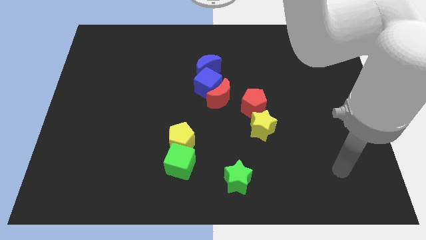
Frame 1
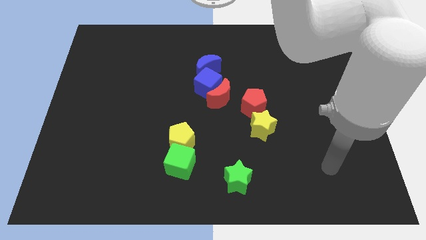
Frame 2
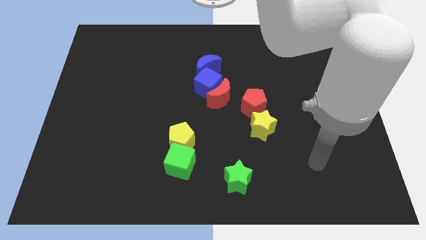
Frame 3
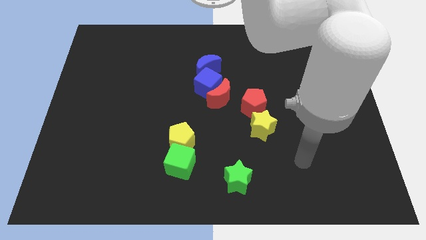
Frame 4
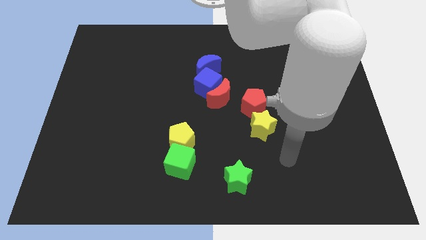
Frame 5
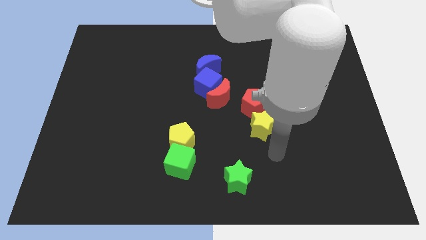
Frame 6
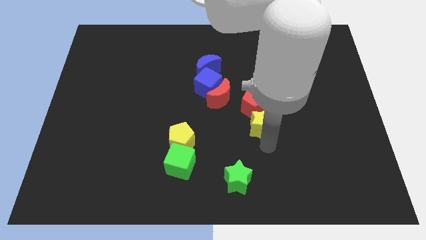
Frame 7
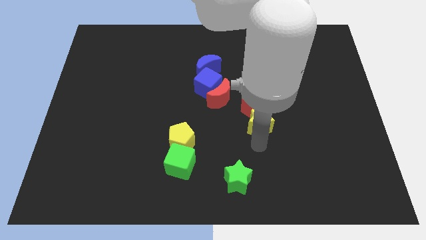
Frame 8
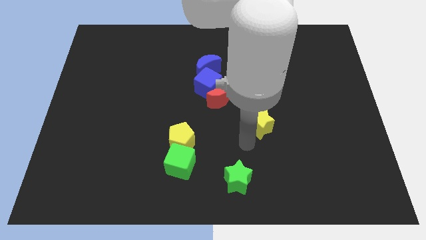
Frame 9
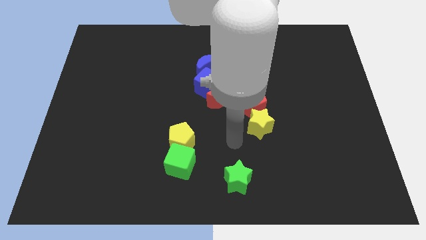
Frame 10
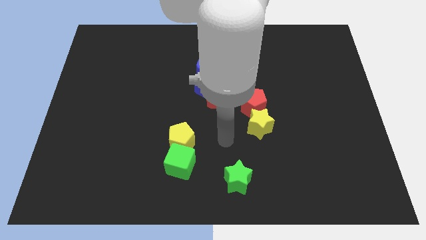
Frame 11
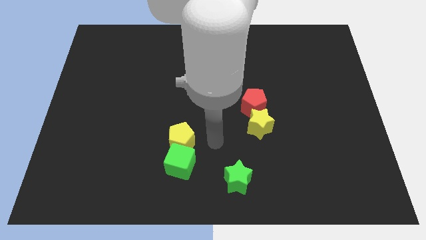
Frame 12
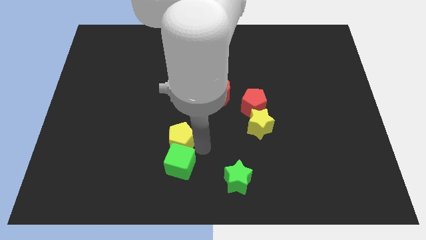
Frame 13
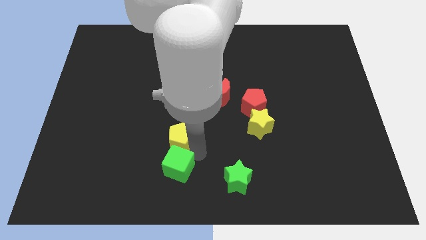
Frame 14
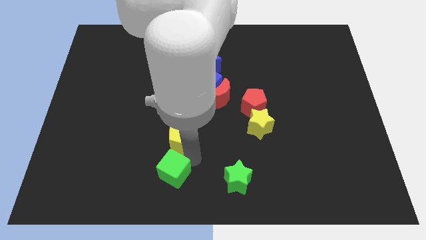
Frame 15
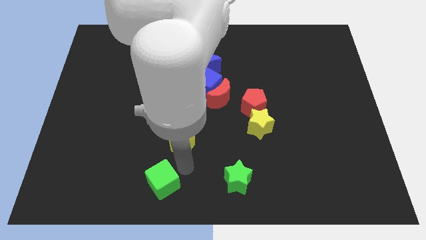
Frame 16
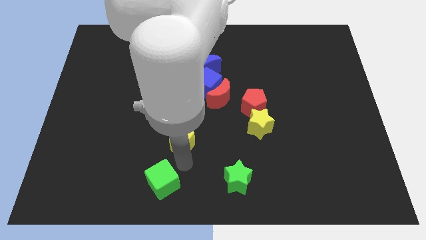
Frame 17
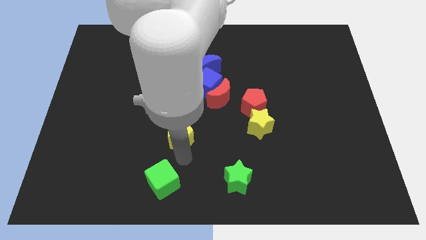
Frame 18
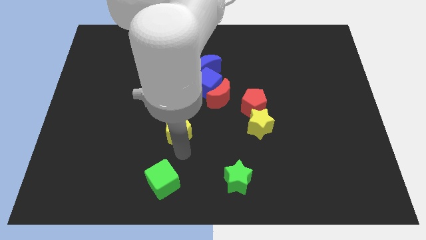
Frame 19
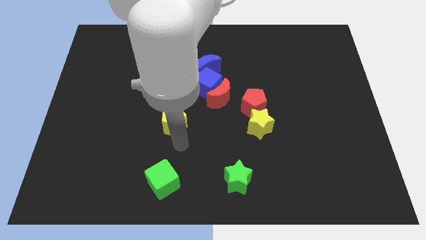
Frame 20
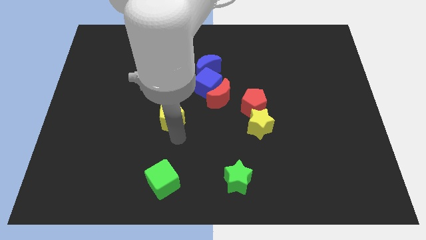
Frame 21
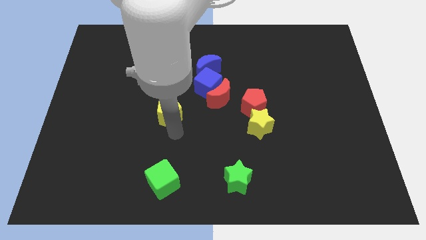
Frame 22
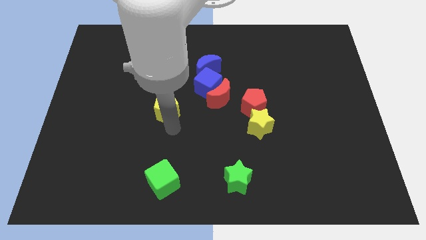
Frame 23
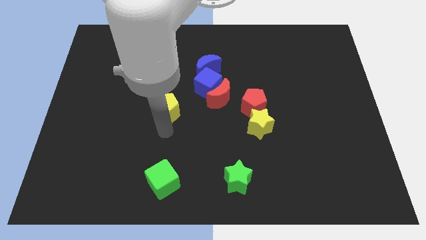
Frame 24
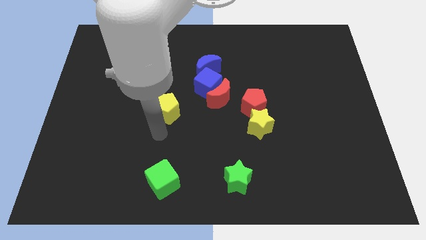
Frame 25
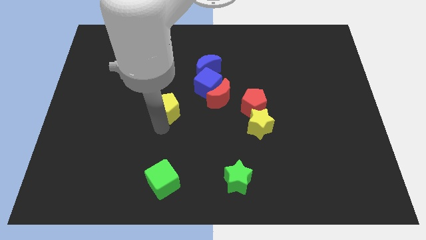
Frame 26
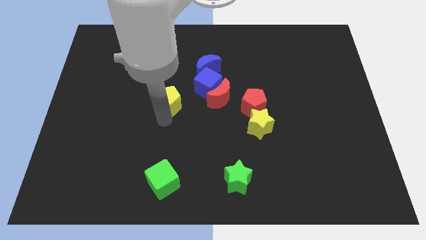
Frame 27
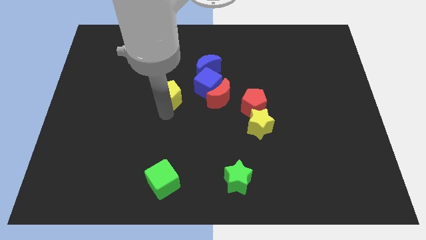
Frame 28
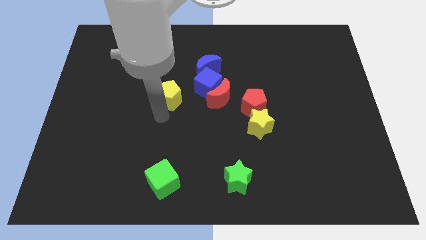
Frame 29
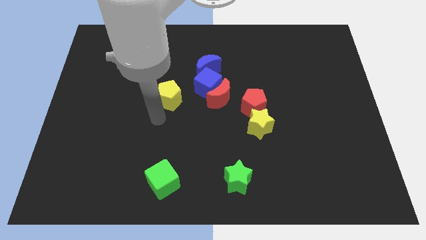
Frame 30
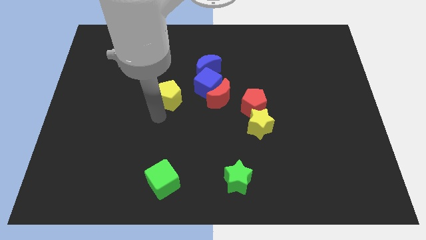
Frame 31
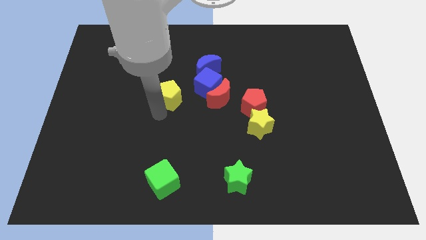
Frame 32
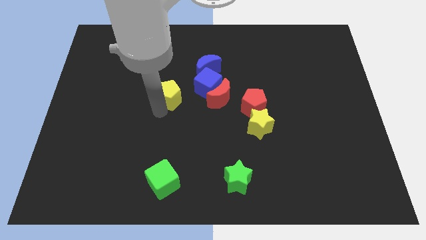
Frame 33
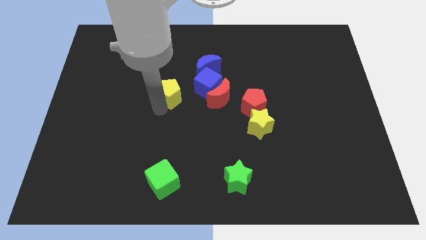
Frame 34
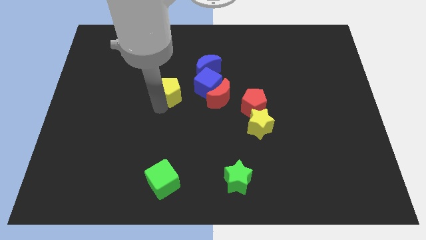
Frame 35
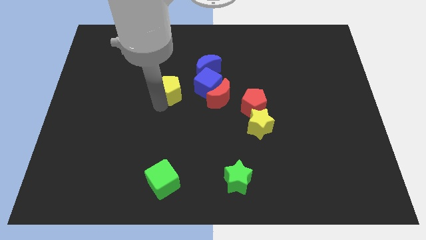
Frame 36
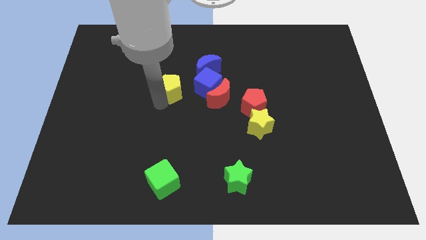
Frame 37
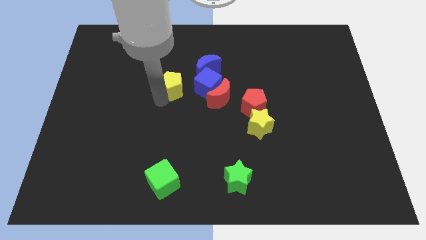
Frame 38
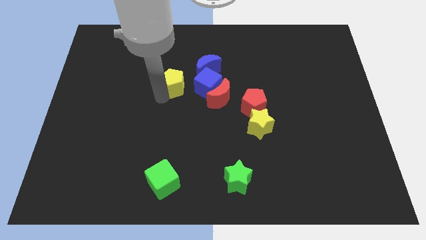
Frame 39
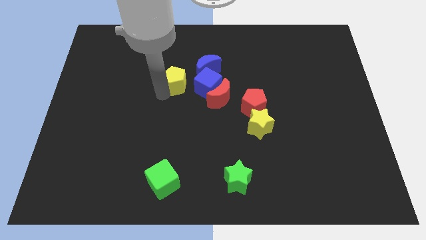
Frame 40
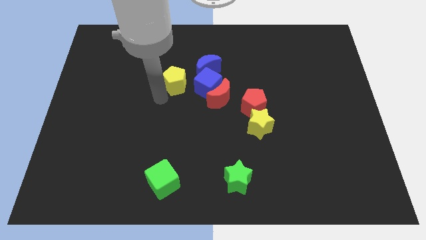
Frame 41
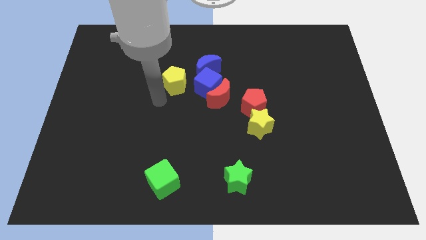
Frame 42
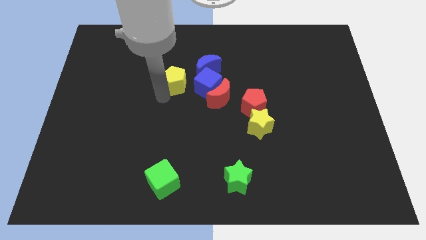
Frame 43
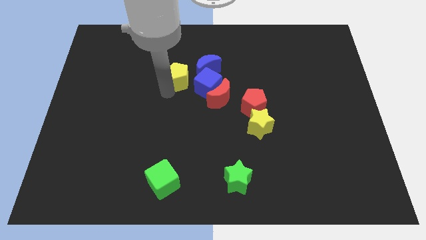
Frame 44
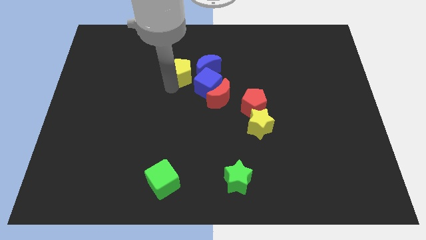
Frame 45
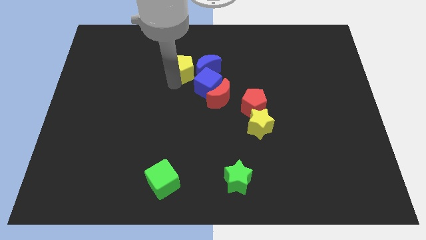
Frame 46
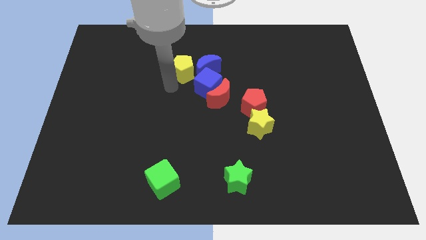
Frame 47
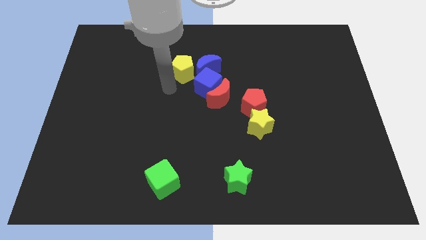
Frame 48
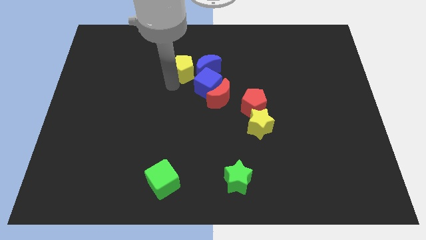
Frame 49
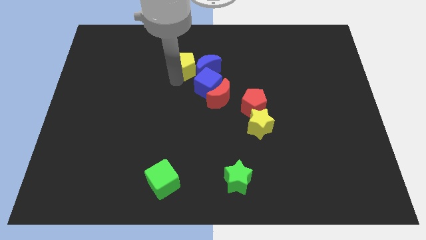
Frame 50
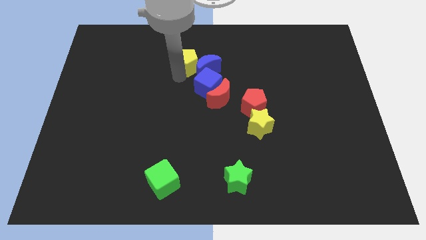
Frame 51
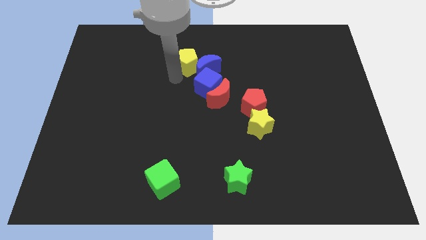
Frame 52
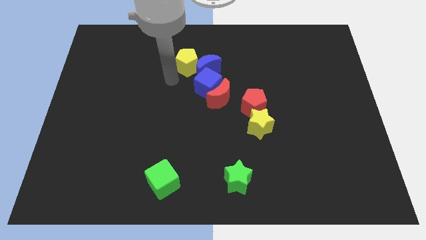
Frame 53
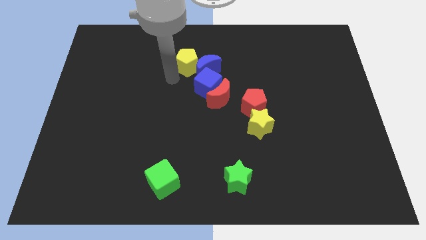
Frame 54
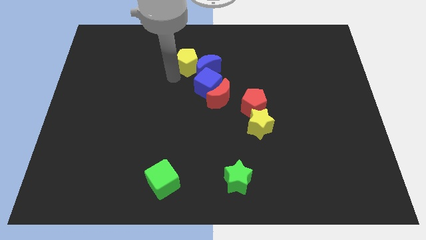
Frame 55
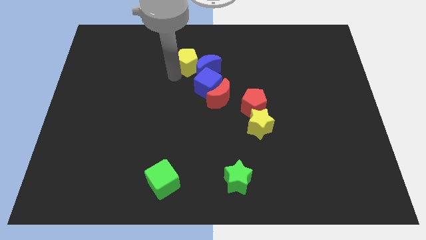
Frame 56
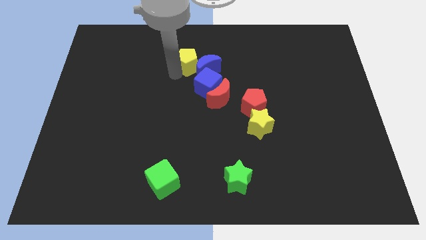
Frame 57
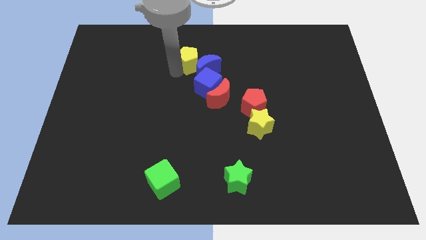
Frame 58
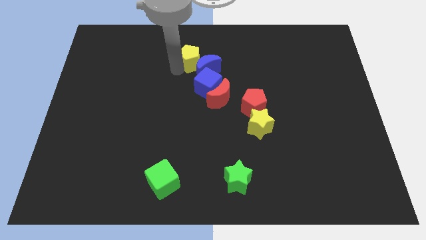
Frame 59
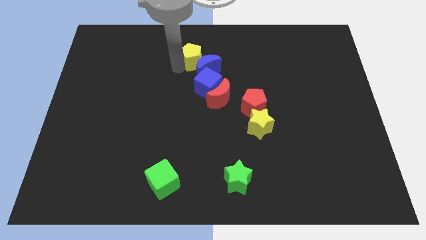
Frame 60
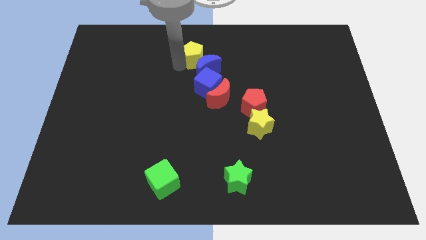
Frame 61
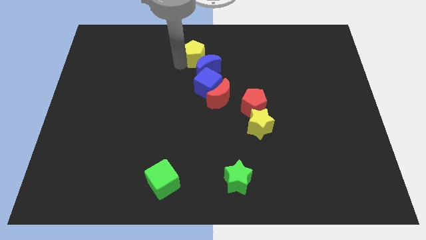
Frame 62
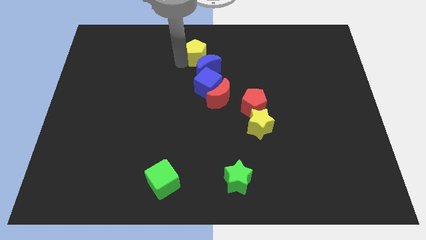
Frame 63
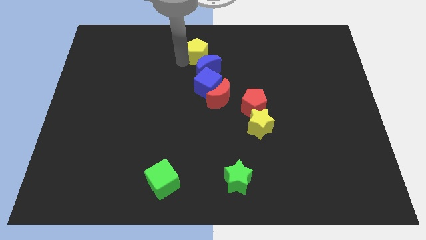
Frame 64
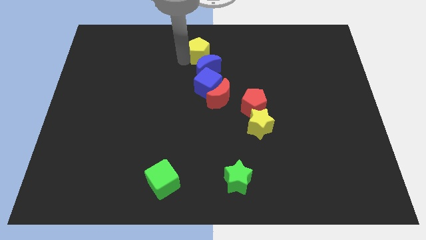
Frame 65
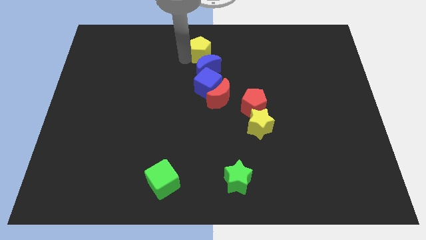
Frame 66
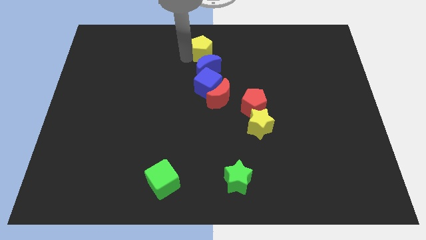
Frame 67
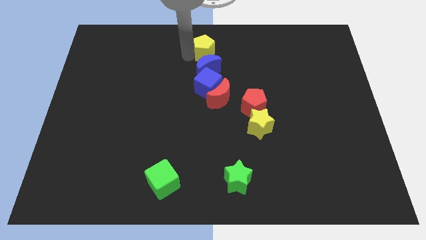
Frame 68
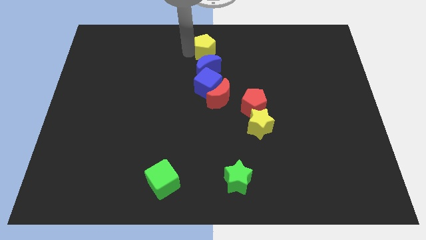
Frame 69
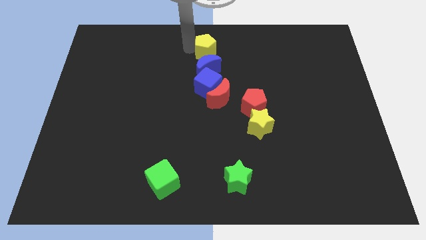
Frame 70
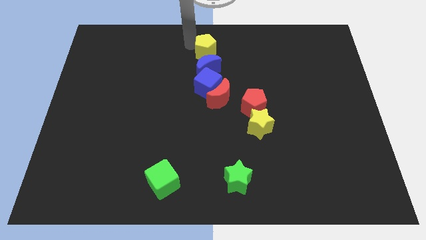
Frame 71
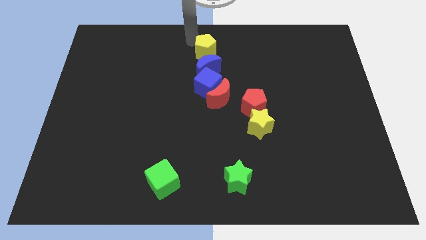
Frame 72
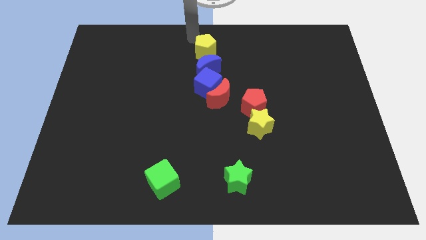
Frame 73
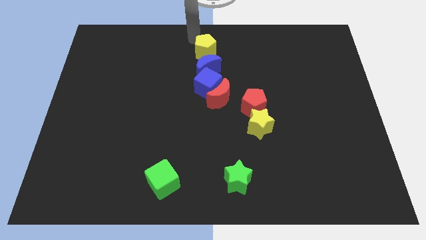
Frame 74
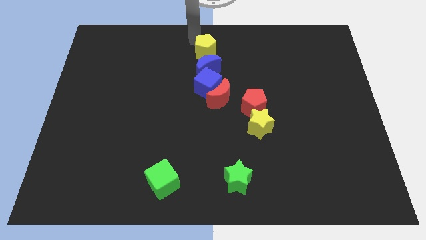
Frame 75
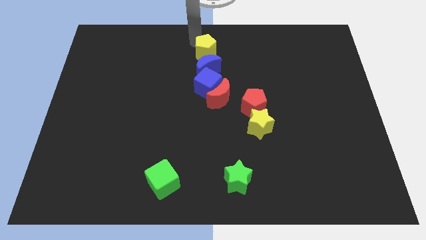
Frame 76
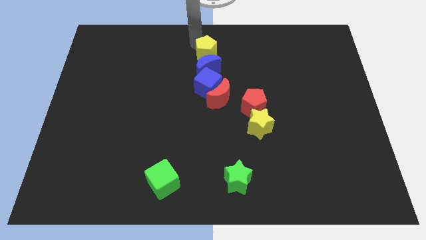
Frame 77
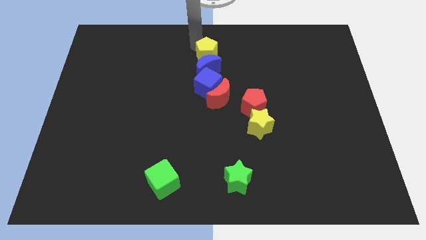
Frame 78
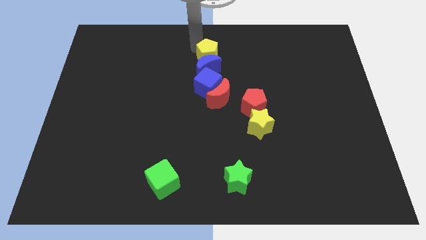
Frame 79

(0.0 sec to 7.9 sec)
slide the yellow pentagon to the top side of the red moon
